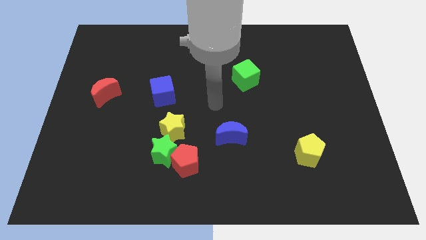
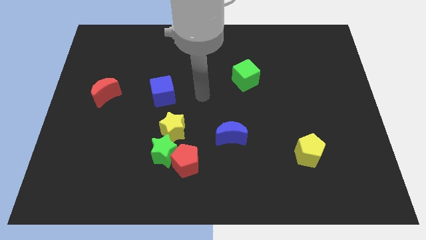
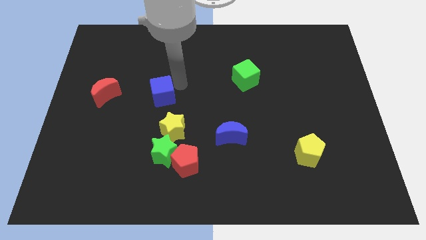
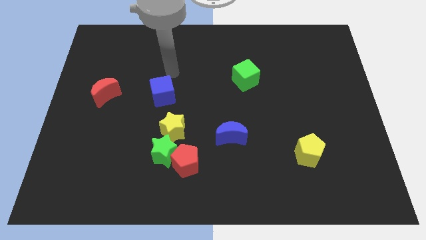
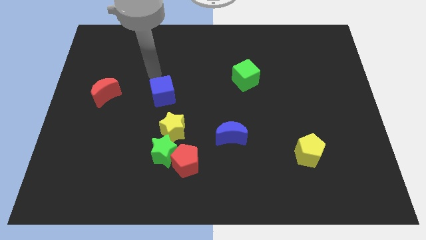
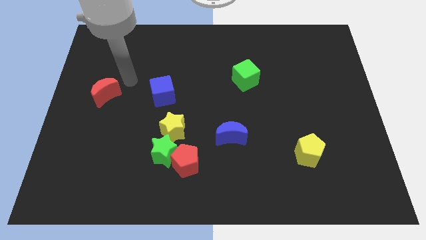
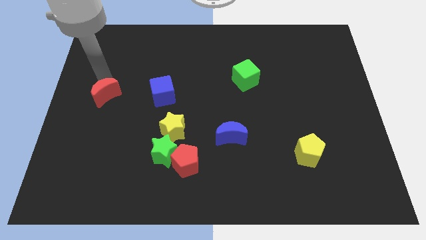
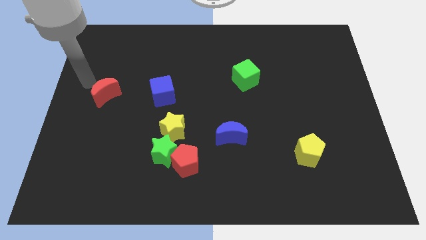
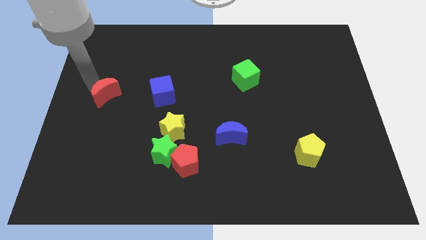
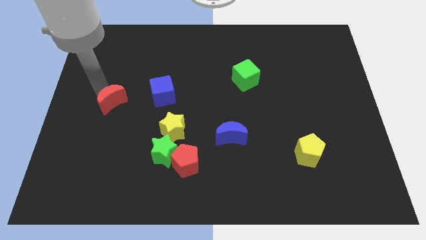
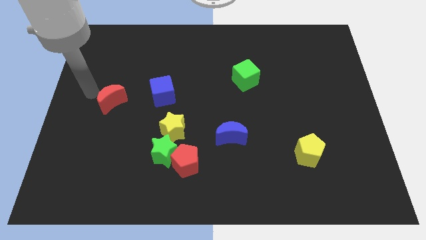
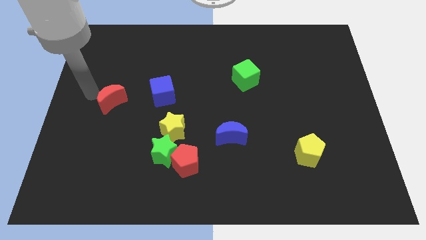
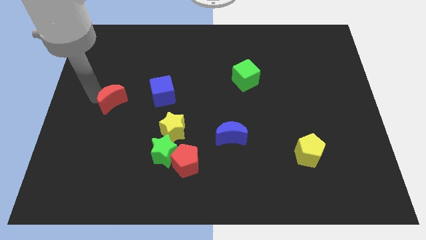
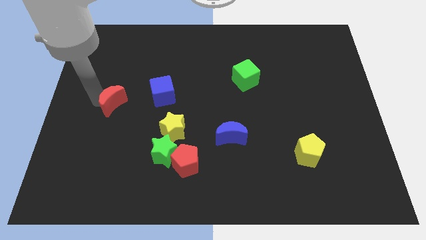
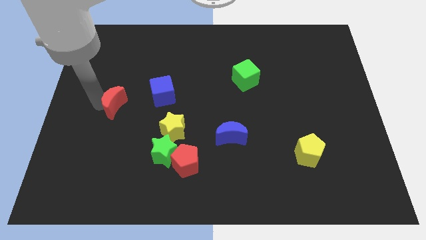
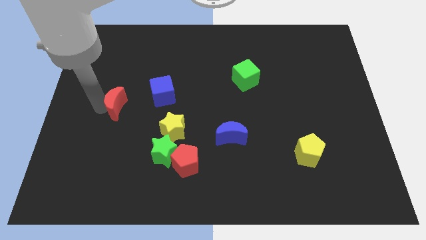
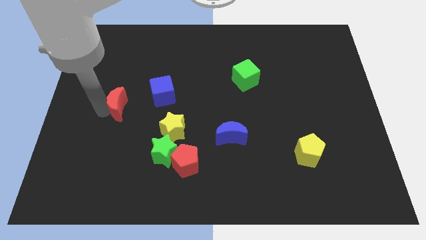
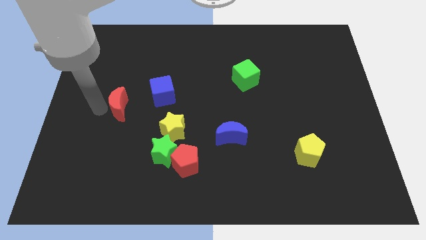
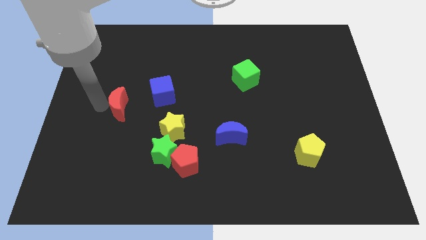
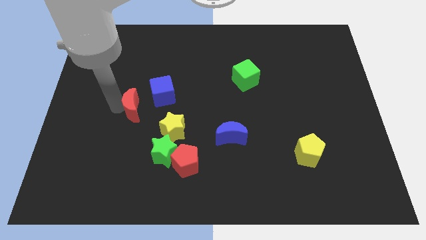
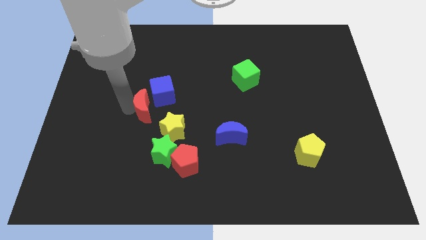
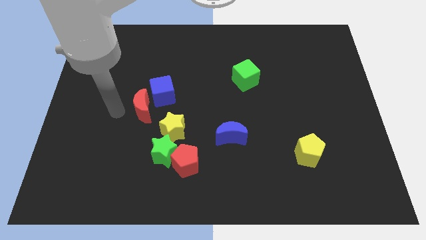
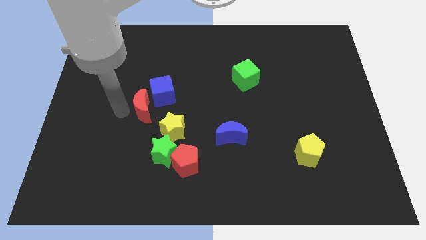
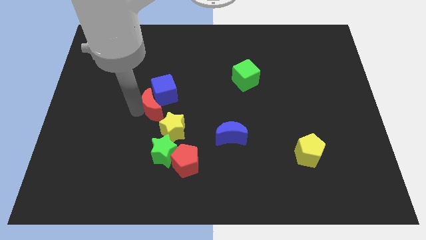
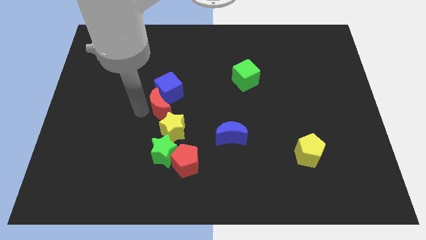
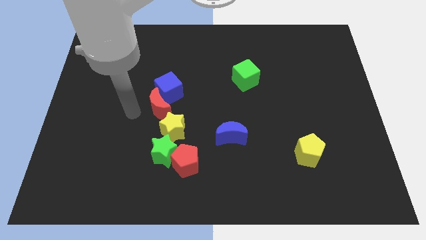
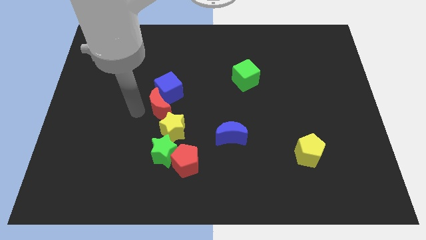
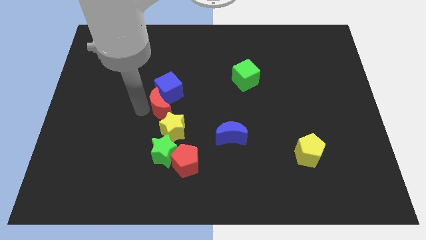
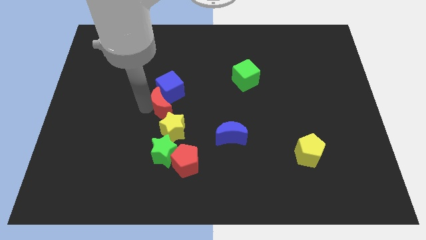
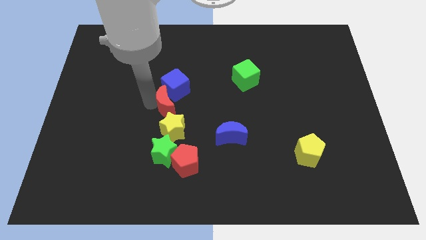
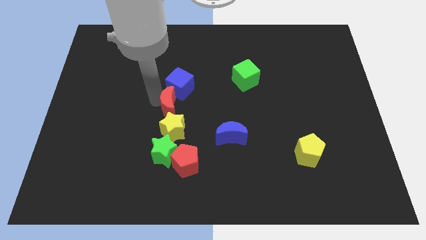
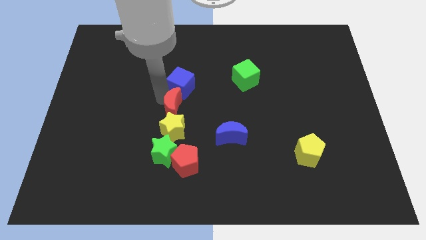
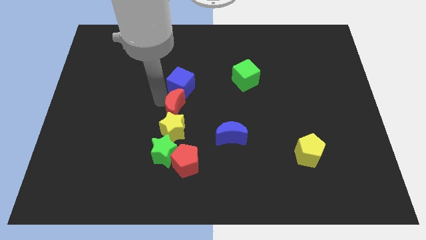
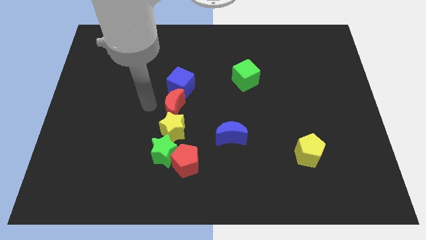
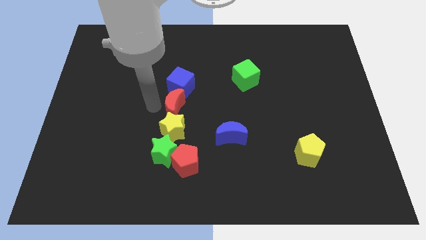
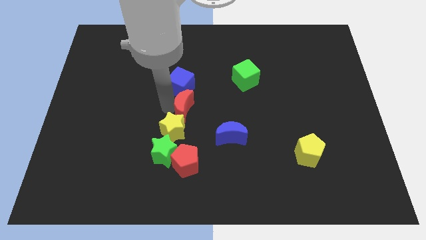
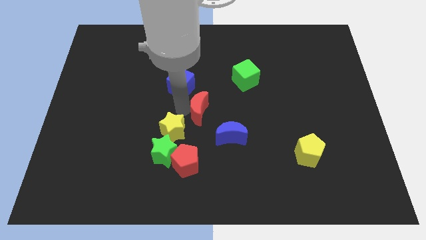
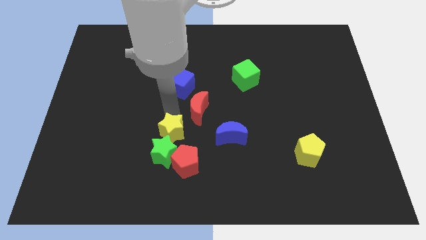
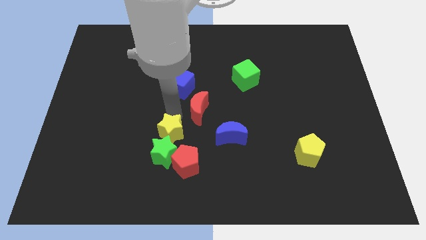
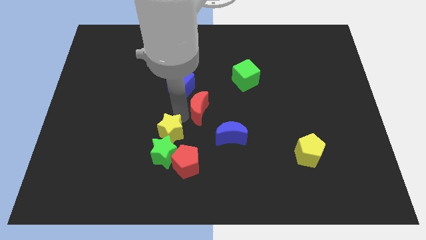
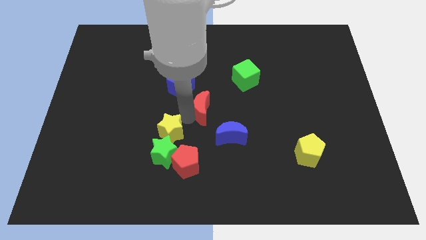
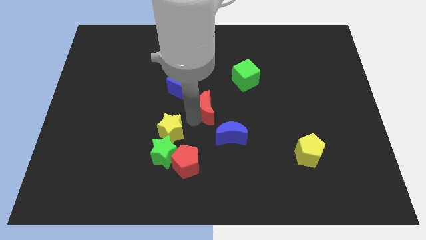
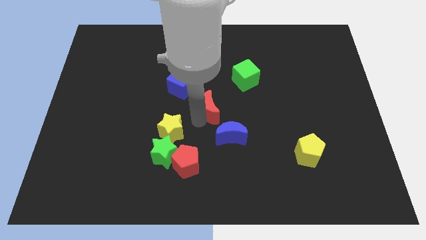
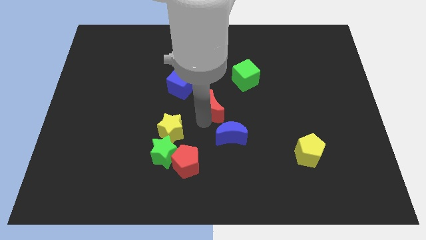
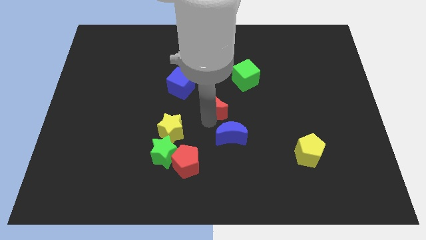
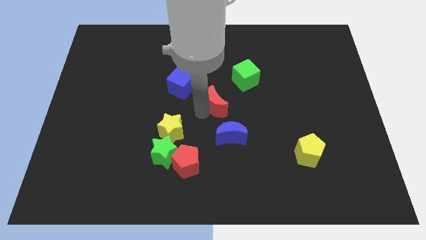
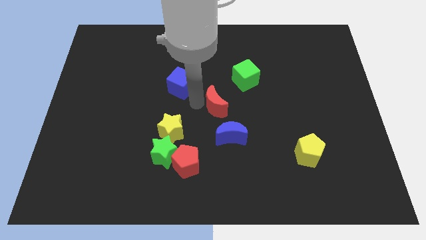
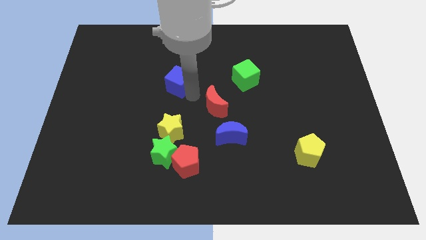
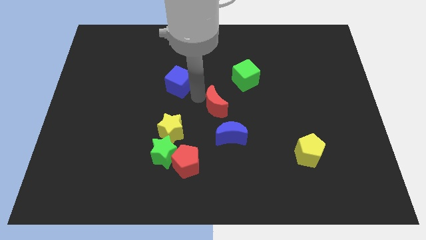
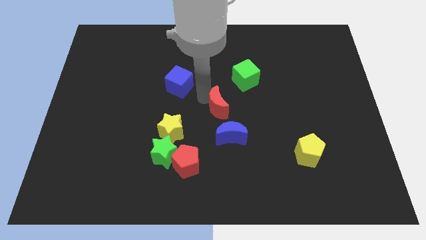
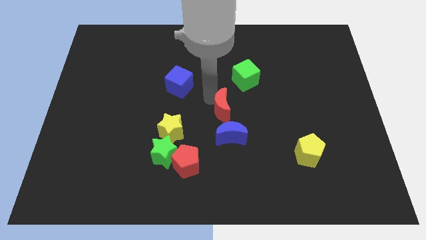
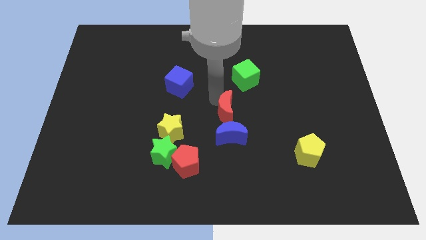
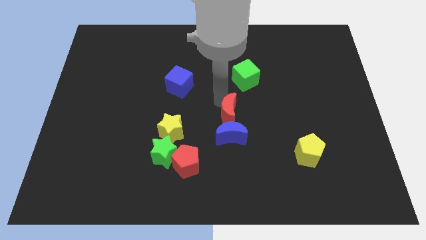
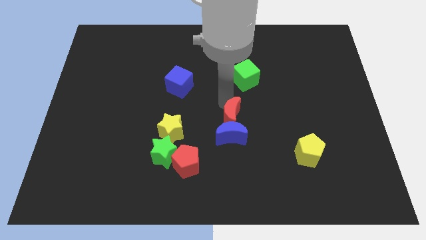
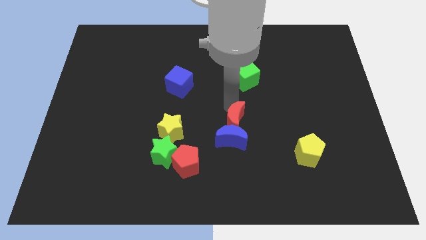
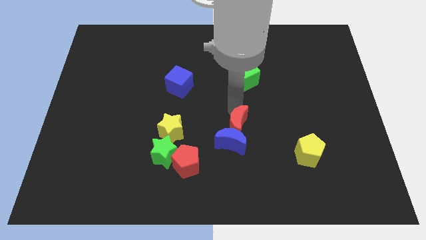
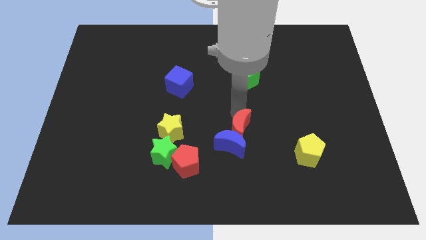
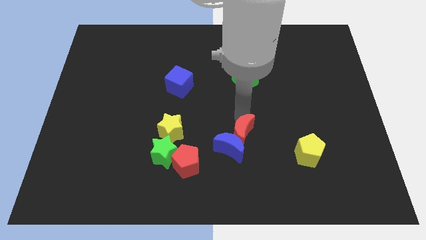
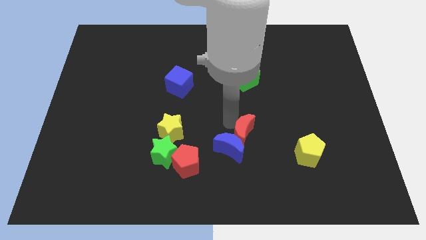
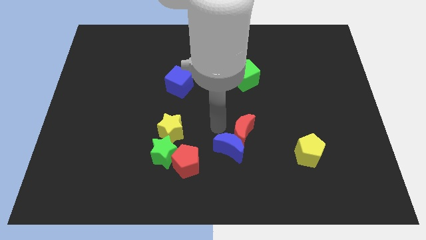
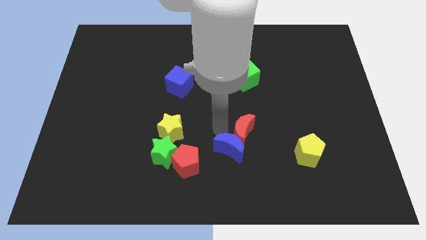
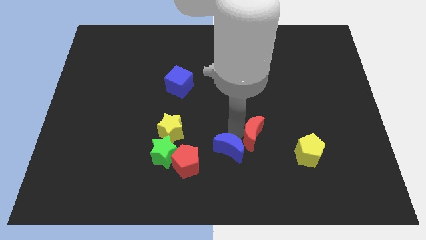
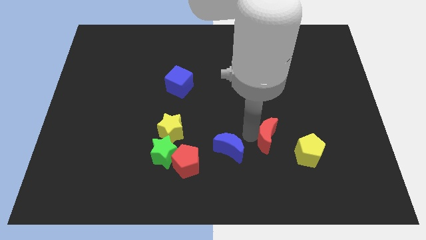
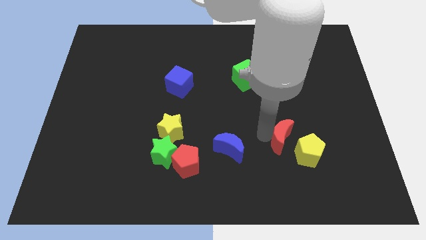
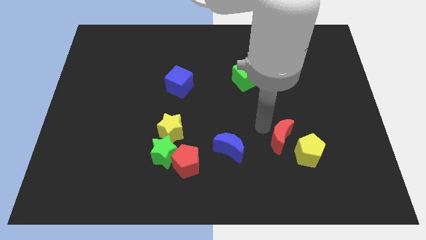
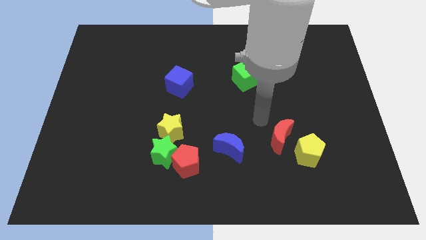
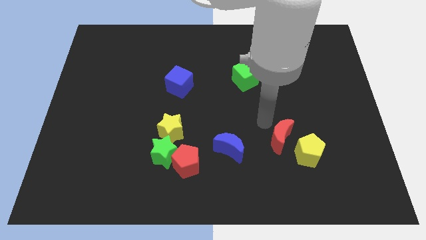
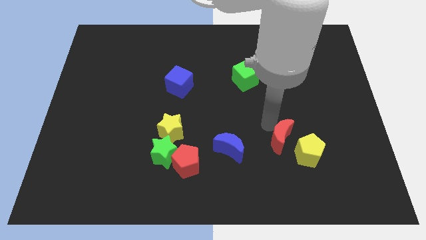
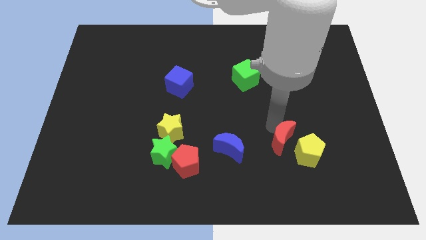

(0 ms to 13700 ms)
move the red moon close to the yellow pentagon

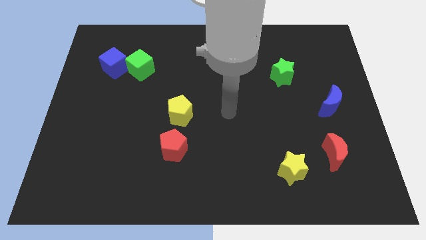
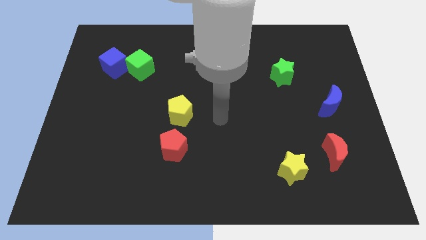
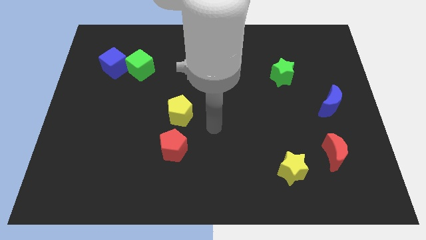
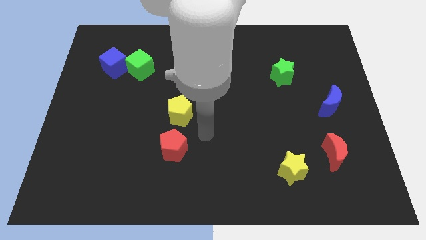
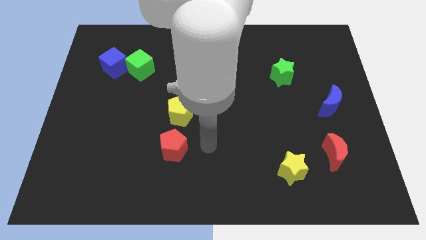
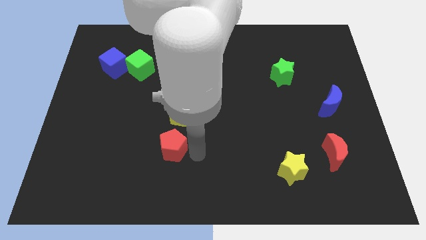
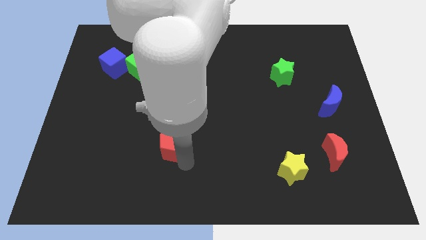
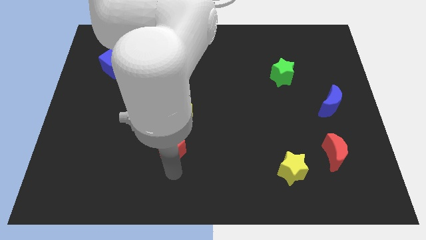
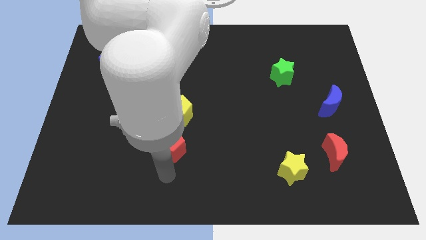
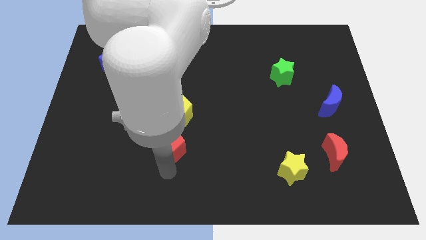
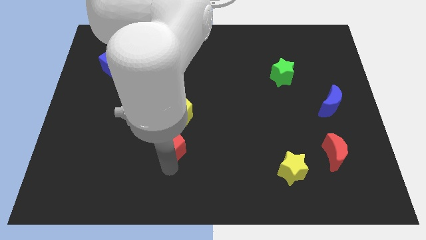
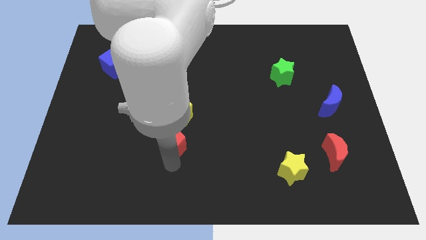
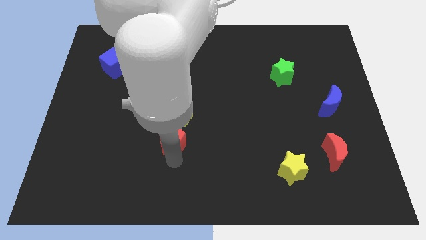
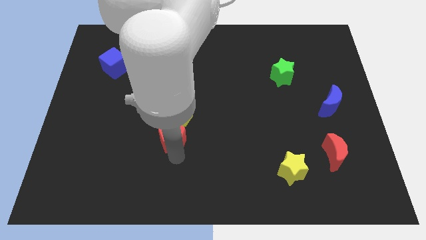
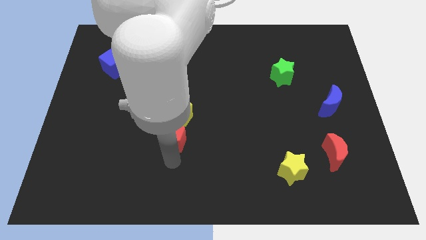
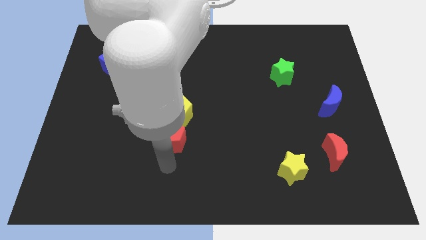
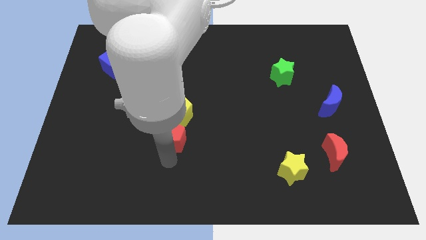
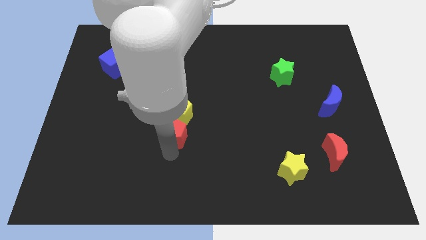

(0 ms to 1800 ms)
put the red pentagon close to the yellow pentagon
